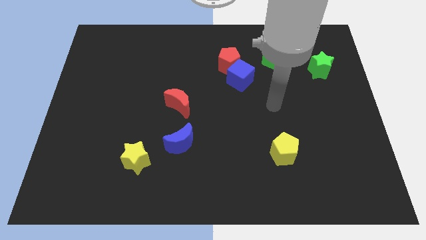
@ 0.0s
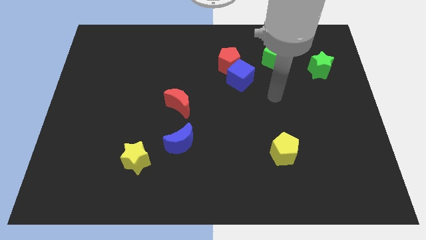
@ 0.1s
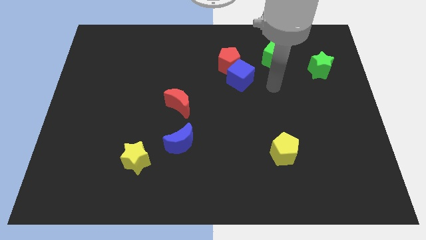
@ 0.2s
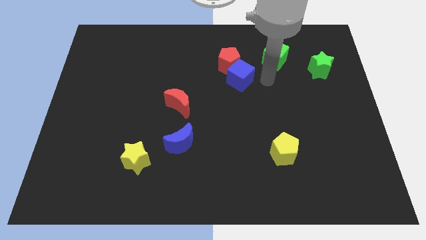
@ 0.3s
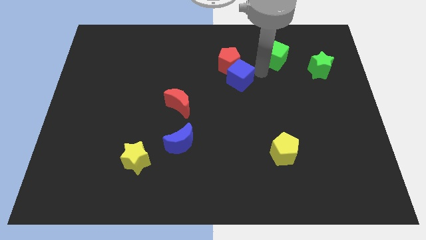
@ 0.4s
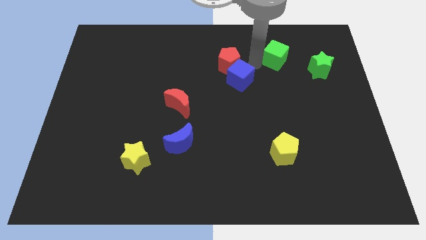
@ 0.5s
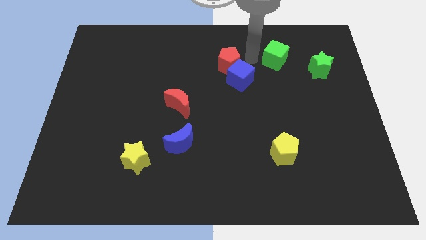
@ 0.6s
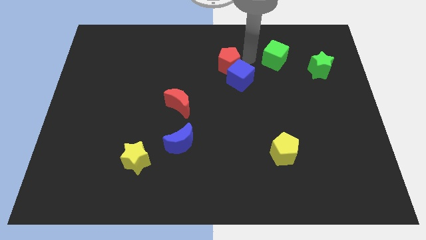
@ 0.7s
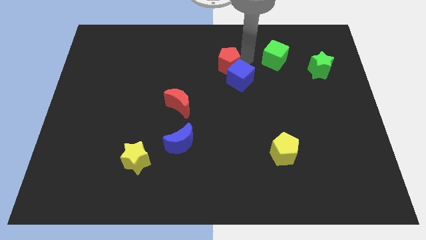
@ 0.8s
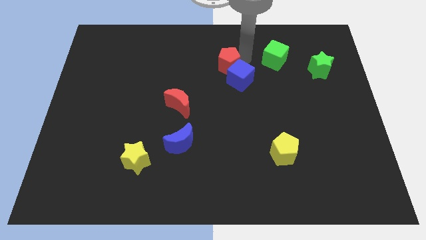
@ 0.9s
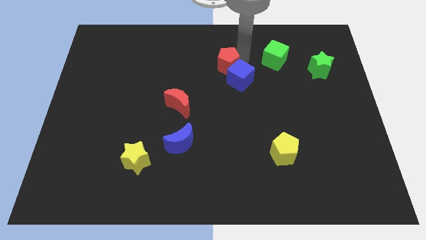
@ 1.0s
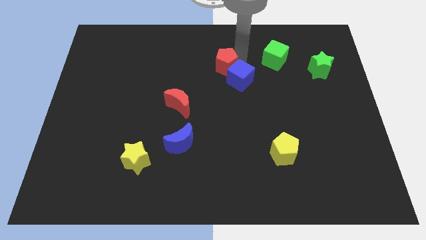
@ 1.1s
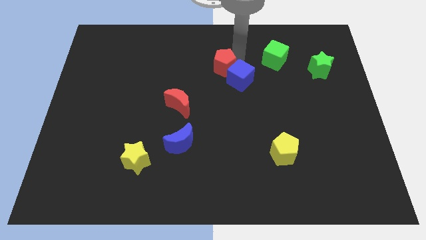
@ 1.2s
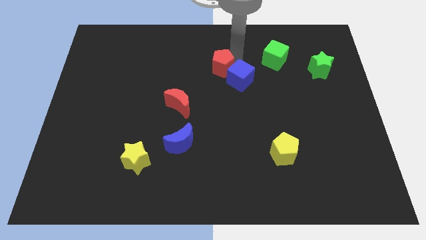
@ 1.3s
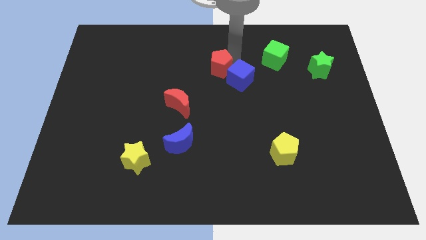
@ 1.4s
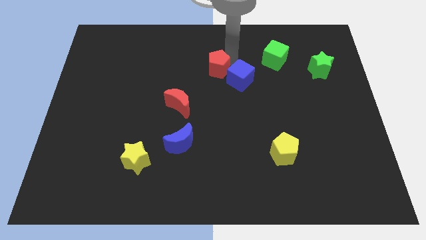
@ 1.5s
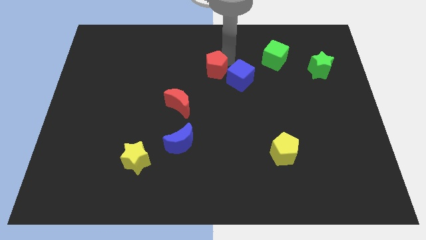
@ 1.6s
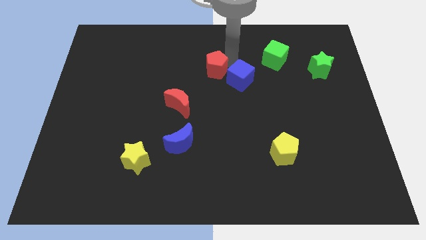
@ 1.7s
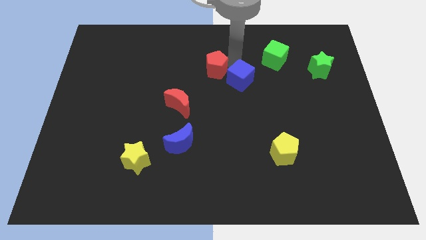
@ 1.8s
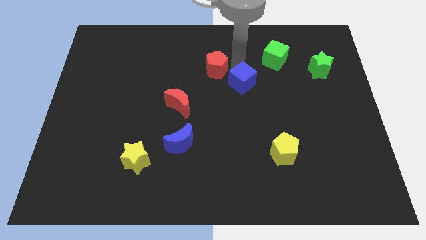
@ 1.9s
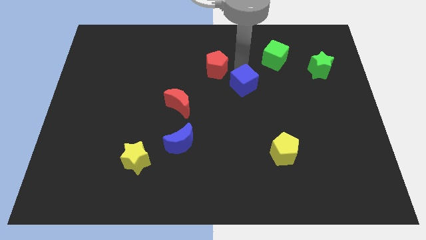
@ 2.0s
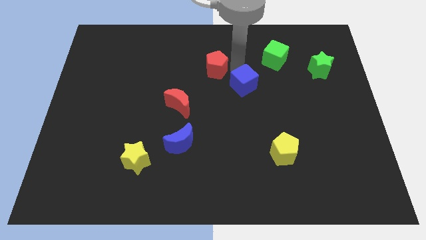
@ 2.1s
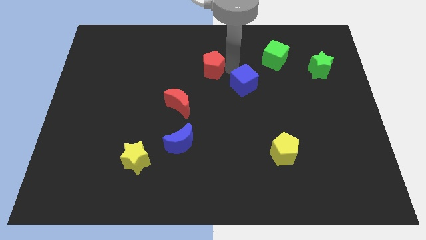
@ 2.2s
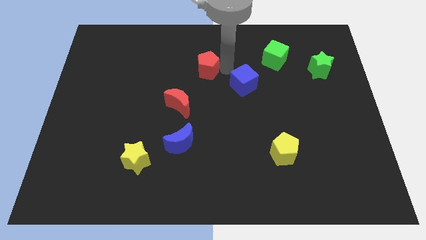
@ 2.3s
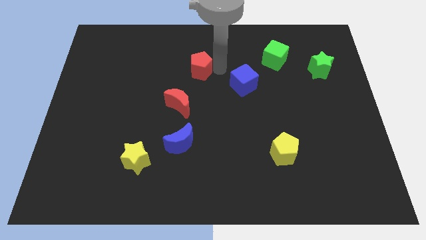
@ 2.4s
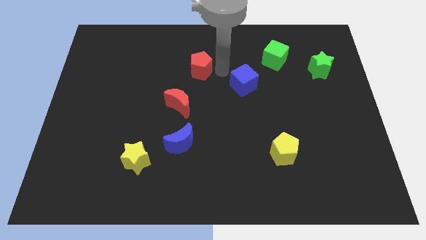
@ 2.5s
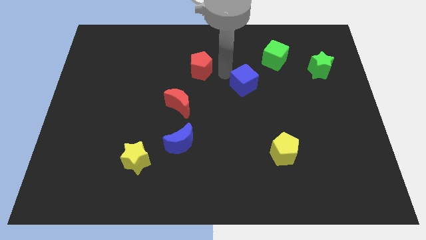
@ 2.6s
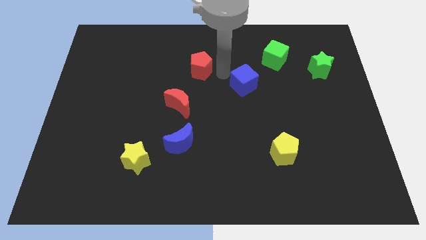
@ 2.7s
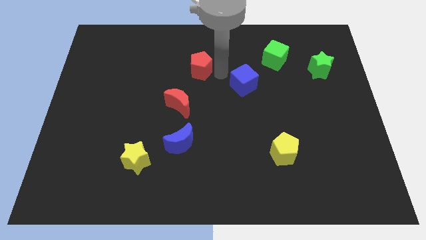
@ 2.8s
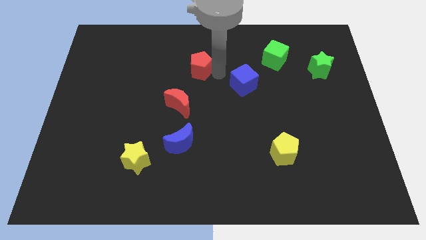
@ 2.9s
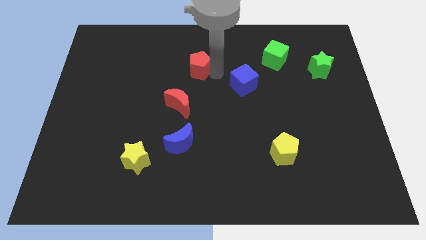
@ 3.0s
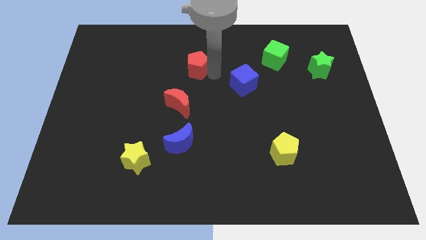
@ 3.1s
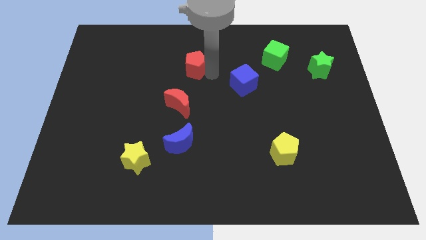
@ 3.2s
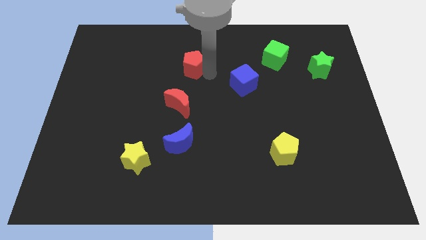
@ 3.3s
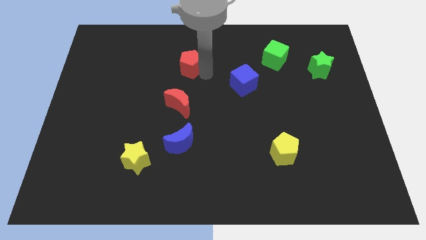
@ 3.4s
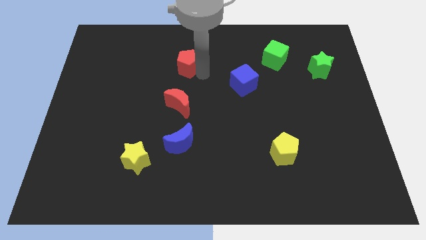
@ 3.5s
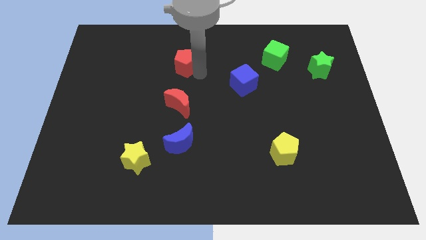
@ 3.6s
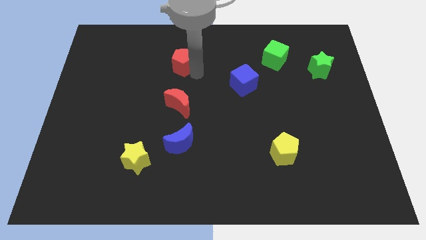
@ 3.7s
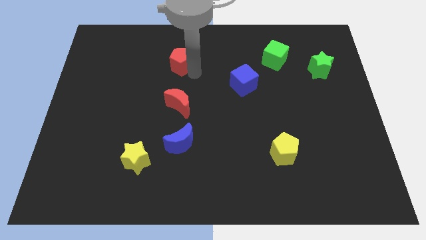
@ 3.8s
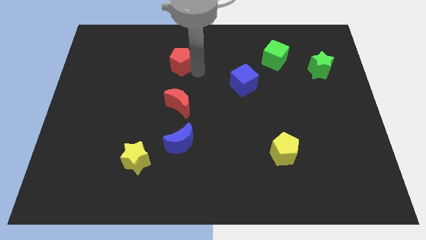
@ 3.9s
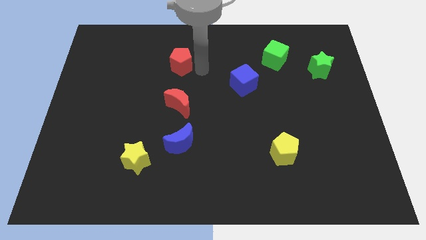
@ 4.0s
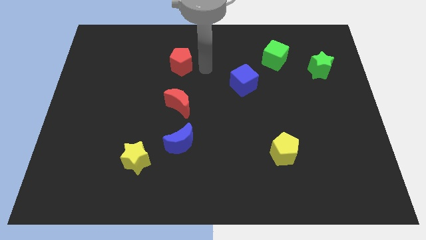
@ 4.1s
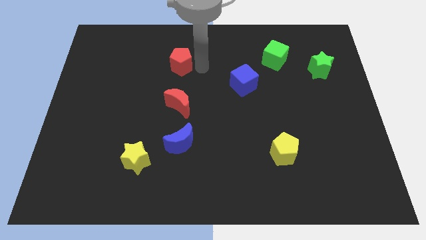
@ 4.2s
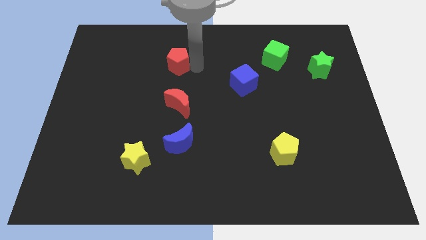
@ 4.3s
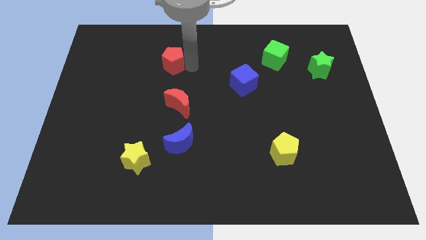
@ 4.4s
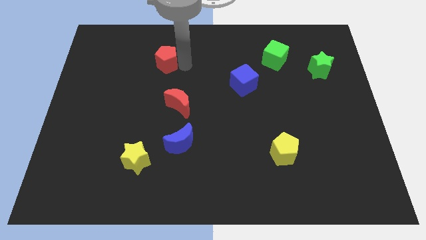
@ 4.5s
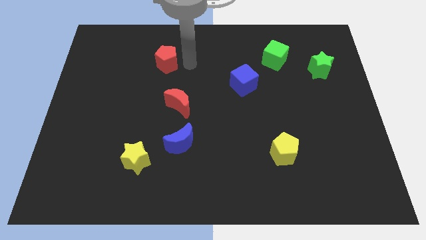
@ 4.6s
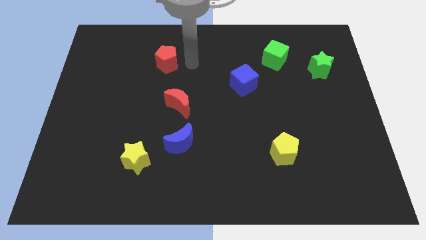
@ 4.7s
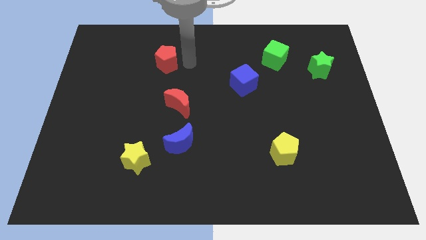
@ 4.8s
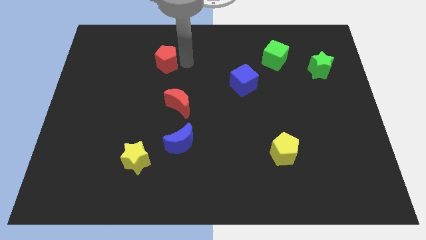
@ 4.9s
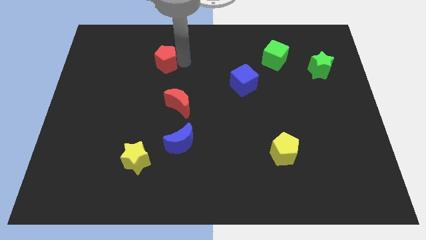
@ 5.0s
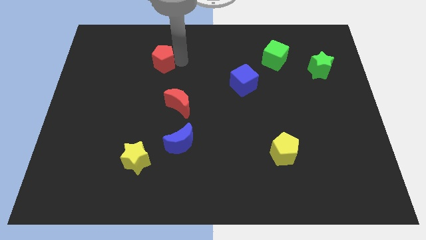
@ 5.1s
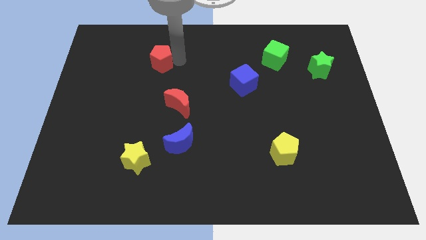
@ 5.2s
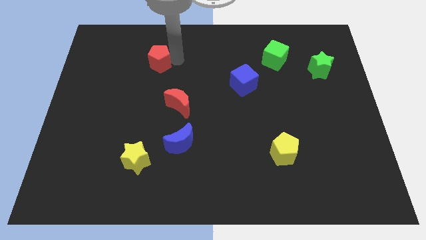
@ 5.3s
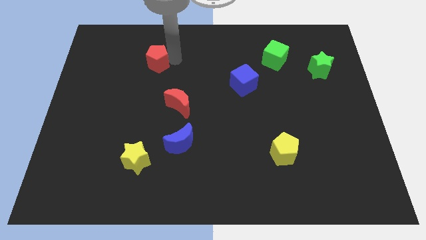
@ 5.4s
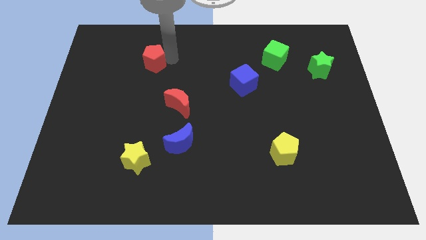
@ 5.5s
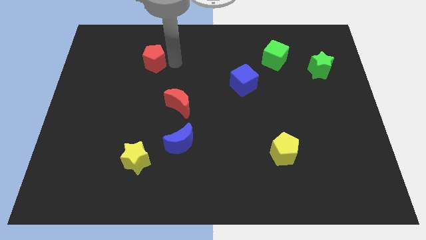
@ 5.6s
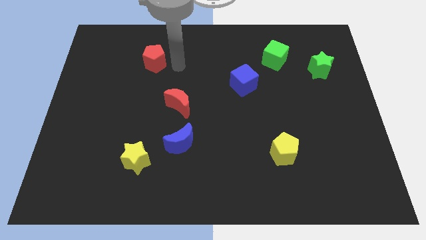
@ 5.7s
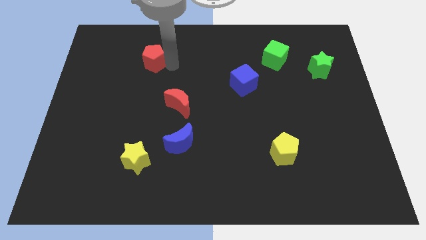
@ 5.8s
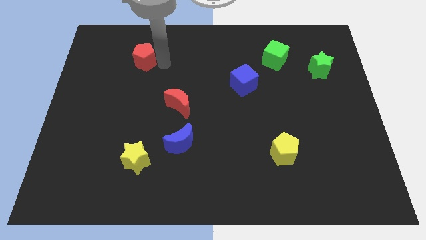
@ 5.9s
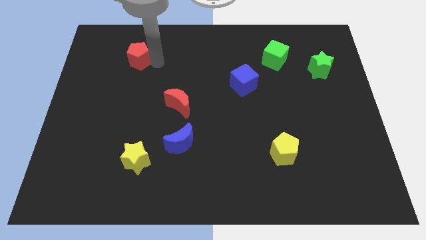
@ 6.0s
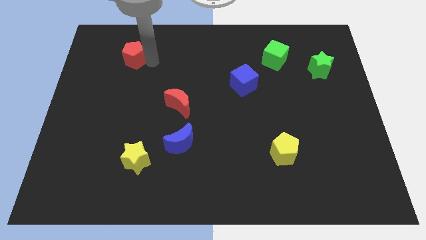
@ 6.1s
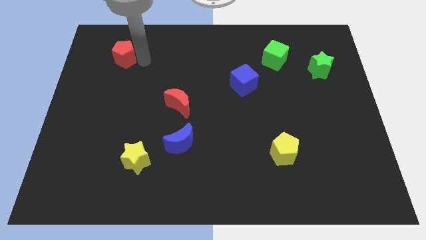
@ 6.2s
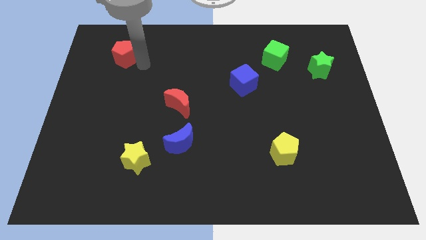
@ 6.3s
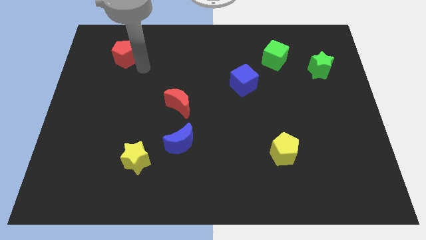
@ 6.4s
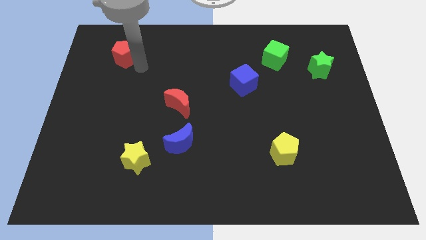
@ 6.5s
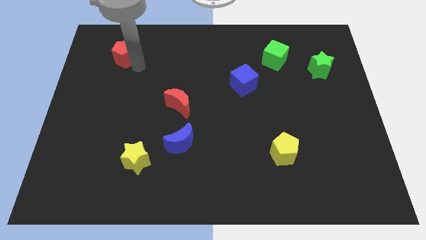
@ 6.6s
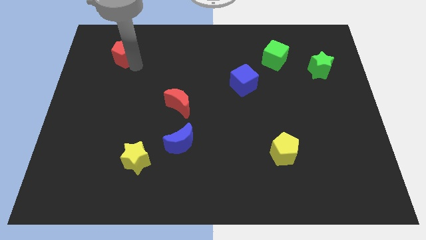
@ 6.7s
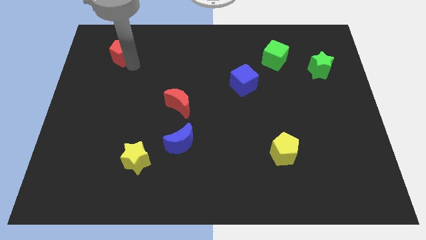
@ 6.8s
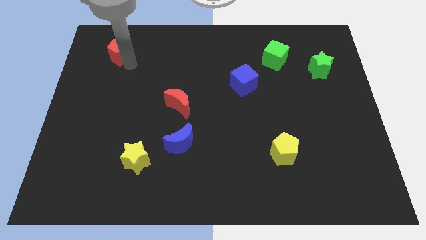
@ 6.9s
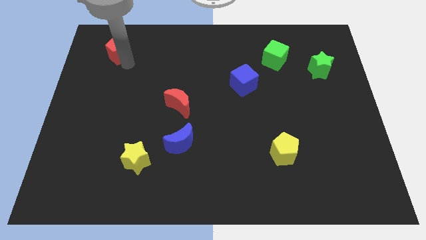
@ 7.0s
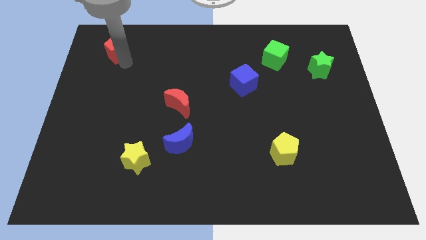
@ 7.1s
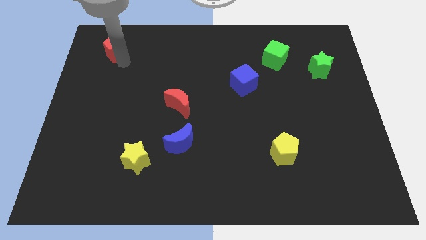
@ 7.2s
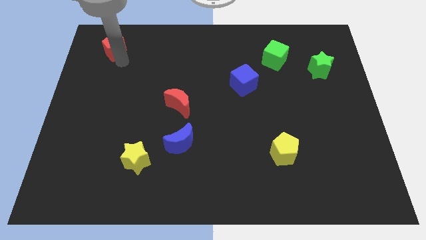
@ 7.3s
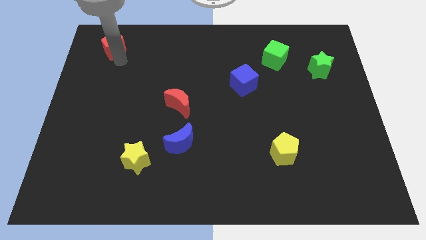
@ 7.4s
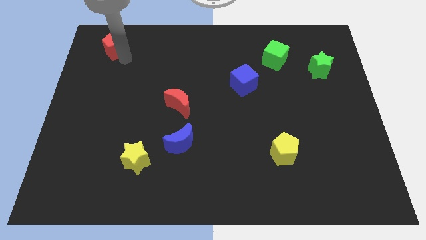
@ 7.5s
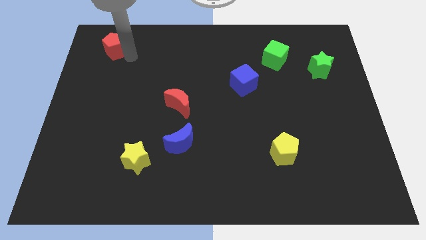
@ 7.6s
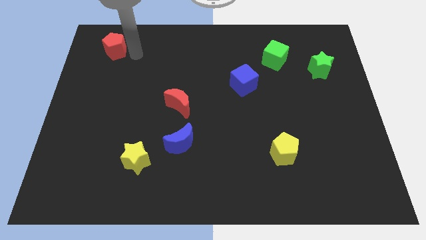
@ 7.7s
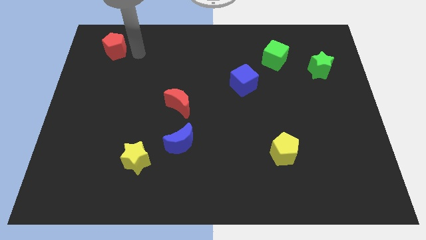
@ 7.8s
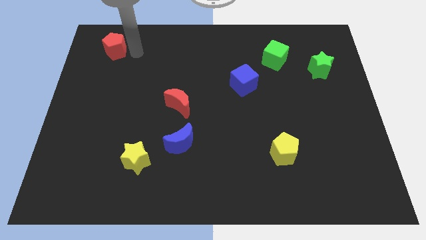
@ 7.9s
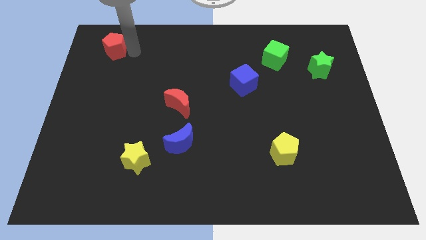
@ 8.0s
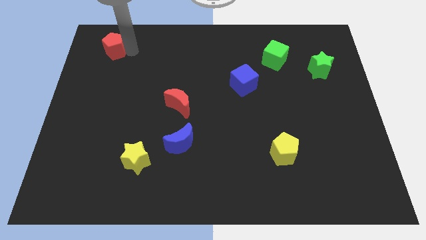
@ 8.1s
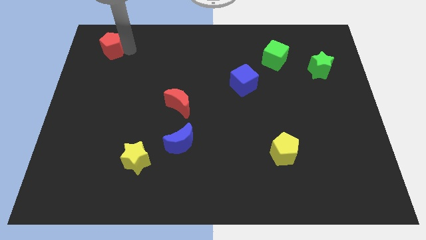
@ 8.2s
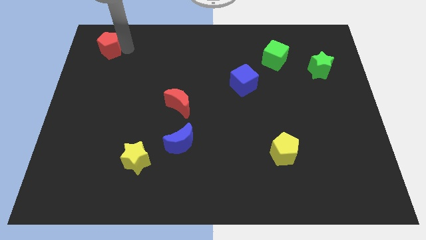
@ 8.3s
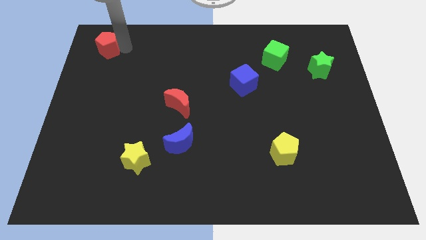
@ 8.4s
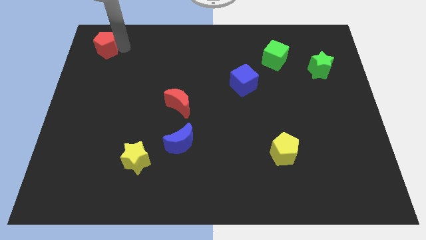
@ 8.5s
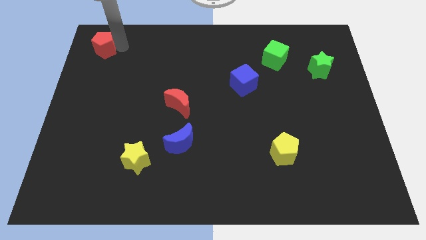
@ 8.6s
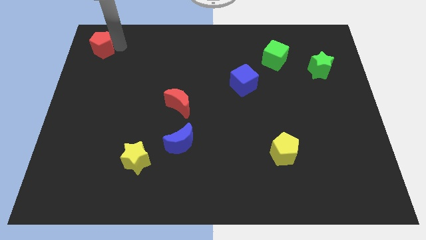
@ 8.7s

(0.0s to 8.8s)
move the red pentagon to the top left
